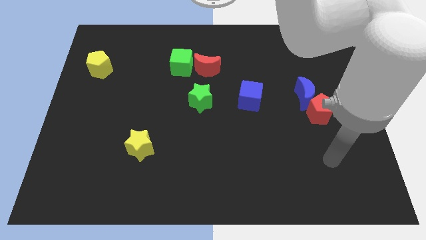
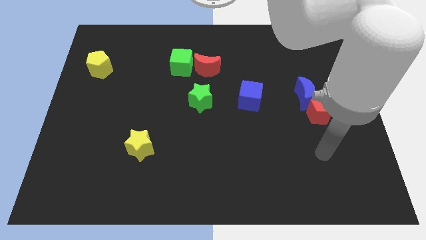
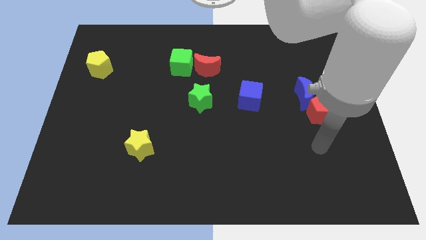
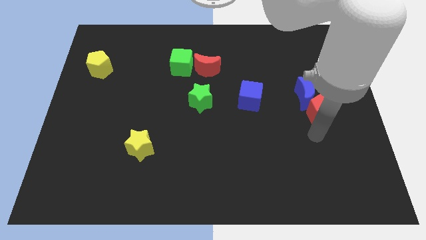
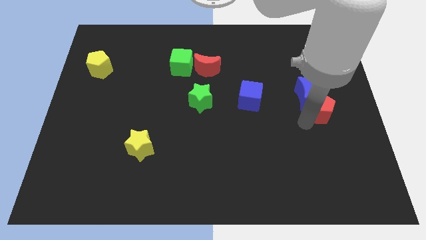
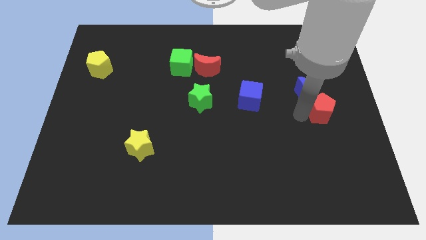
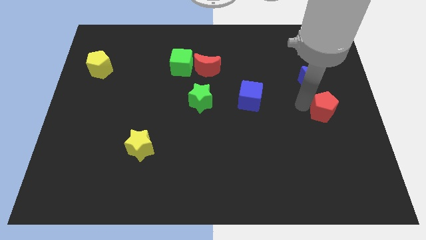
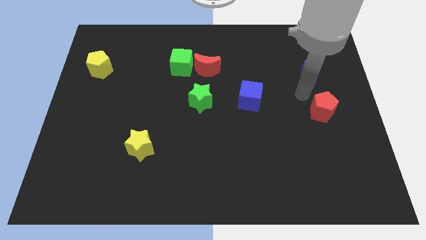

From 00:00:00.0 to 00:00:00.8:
separate the red pentagon from the blue moon

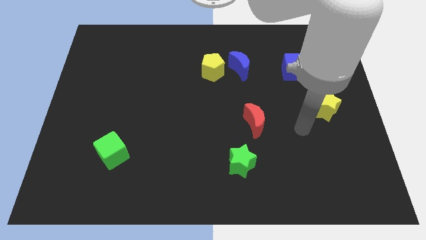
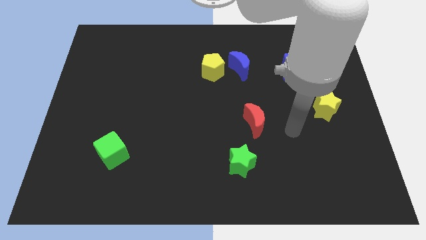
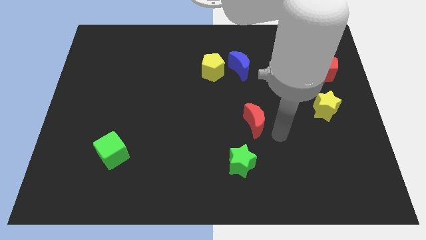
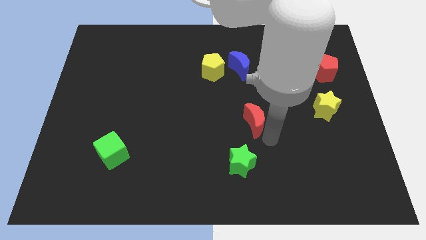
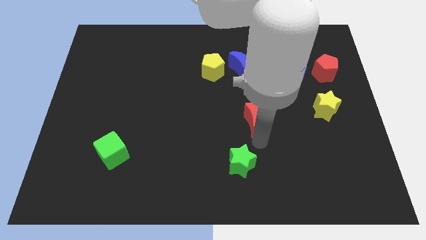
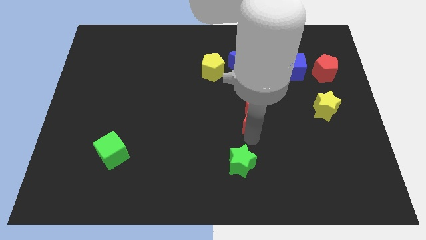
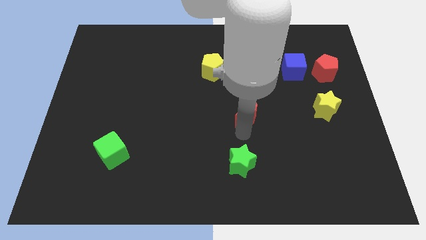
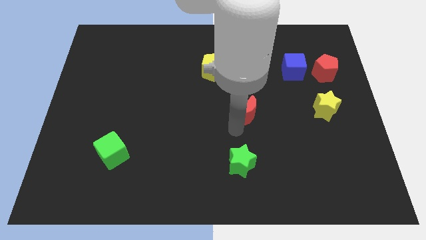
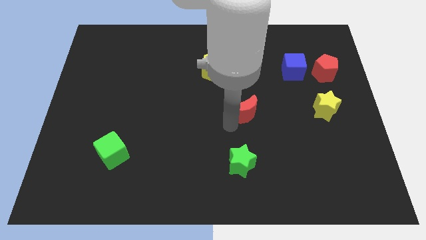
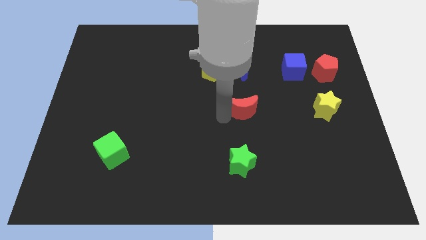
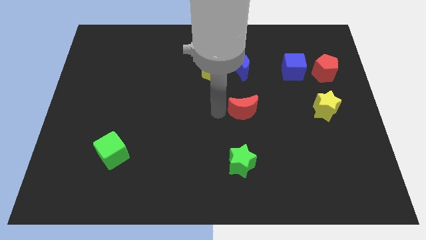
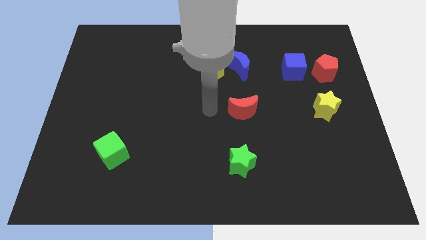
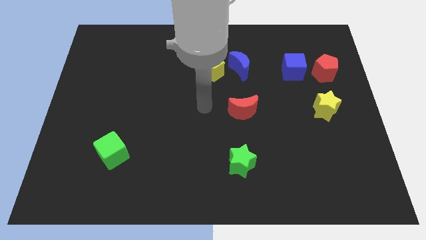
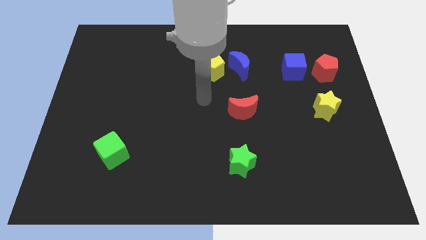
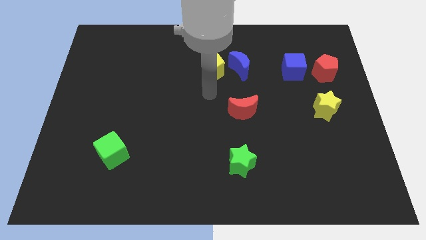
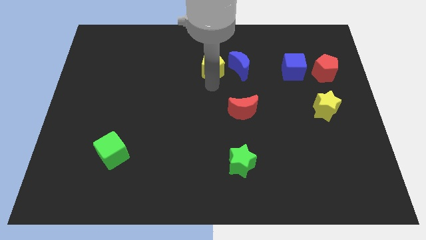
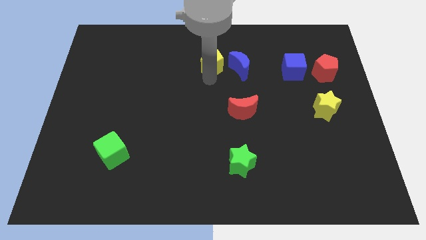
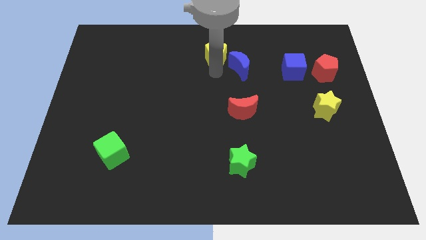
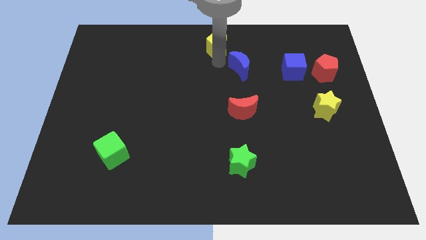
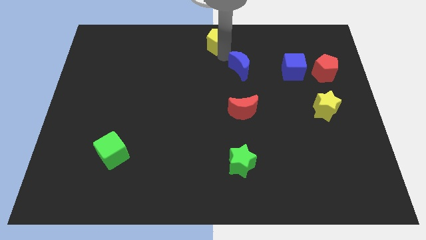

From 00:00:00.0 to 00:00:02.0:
move the blue moon away from the yellow pentagon

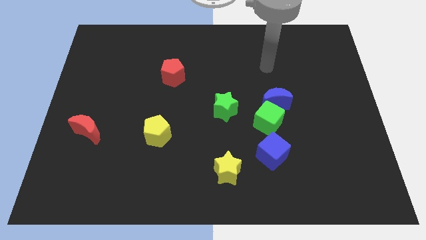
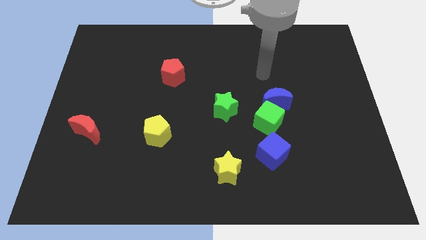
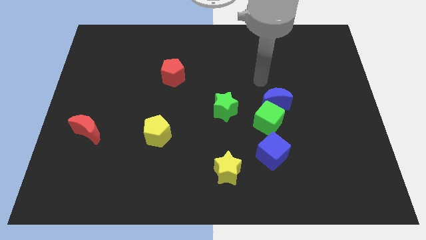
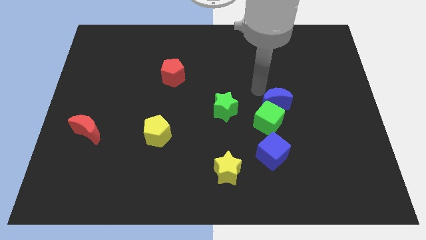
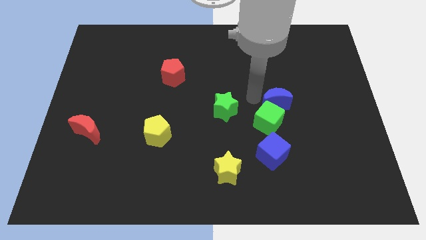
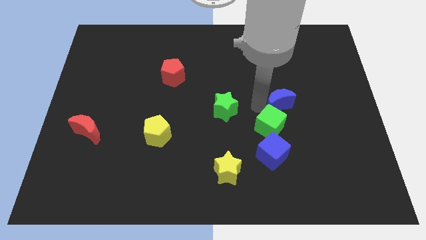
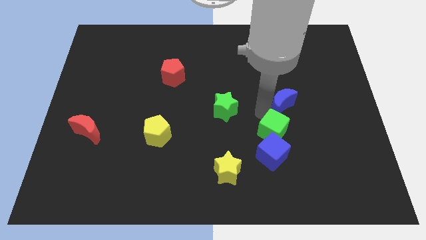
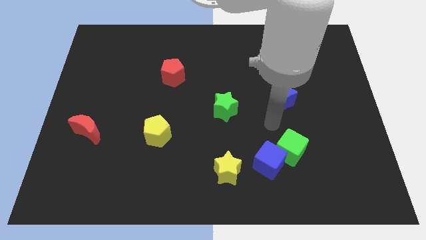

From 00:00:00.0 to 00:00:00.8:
move the blue moon away from the green cube

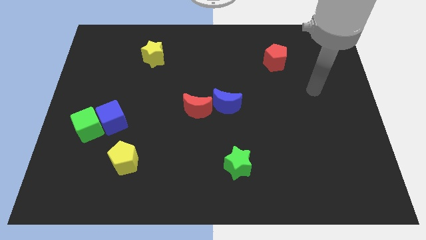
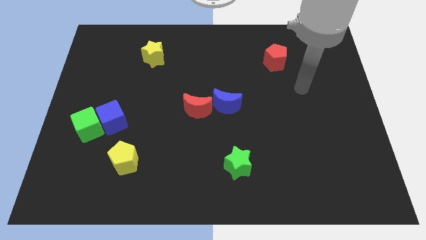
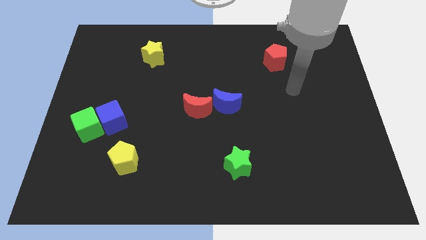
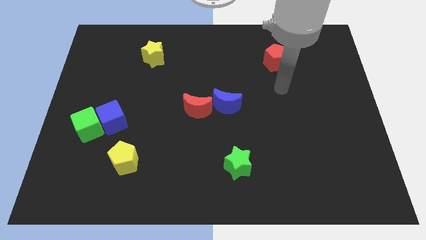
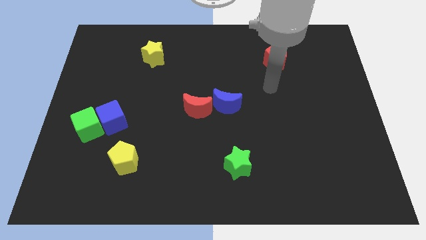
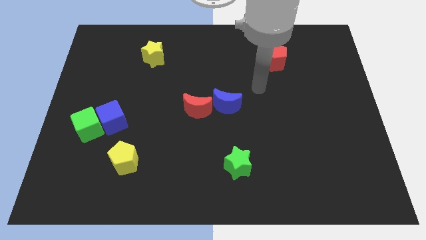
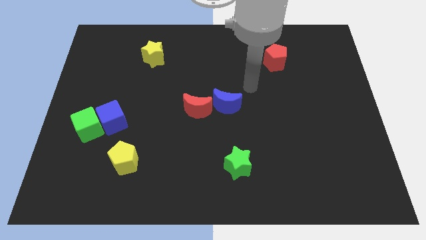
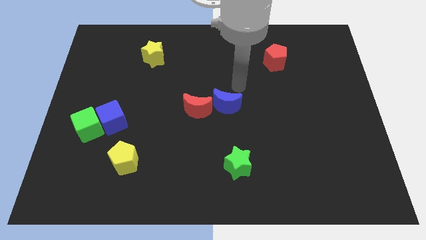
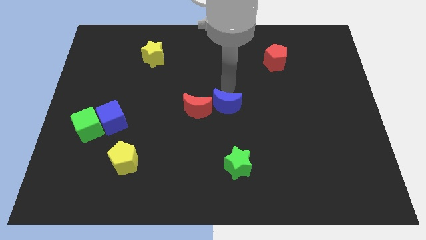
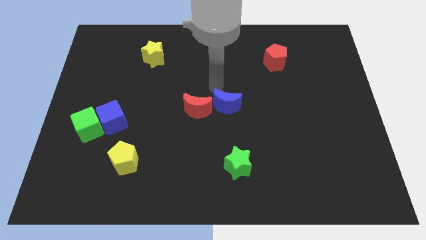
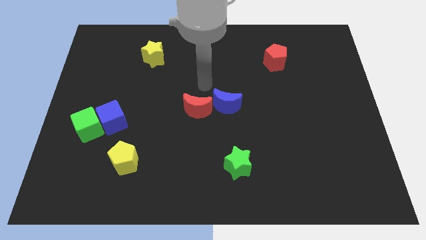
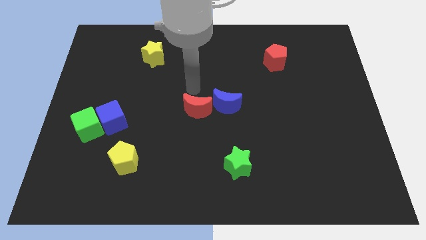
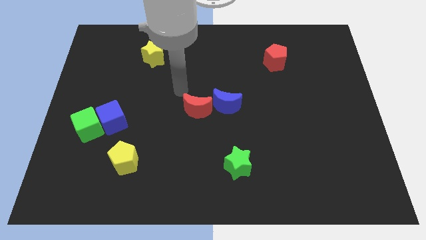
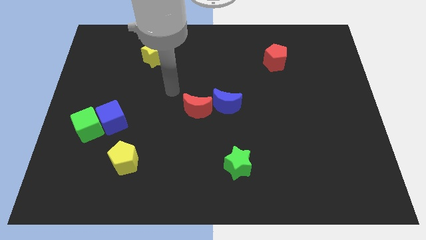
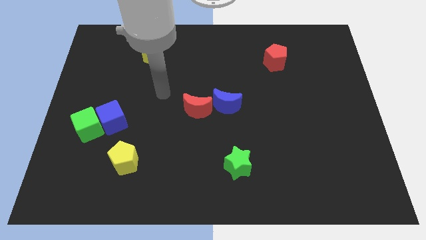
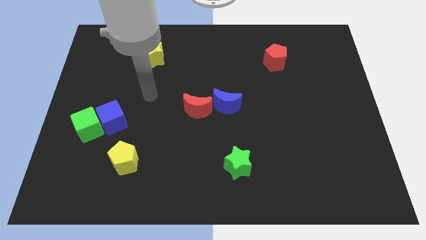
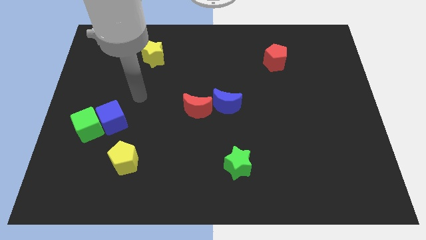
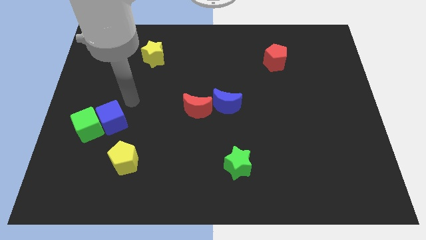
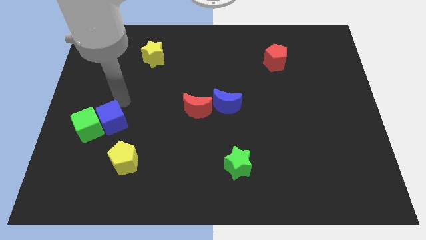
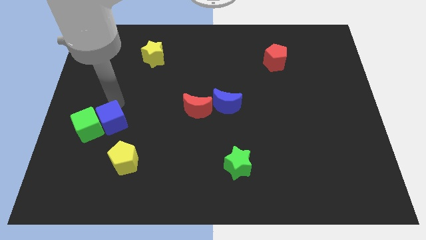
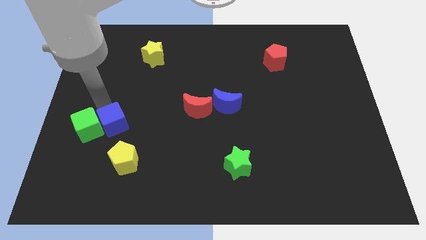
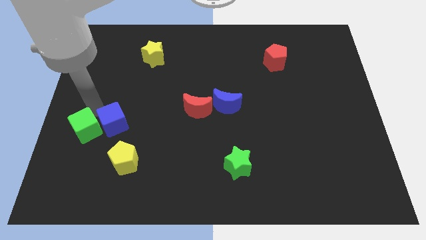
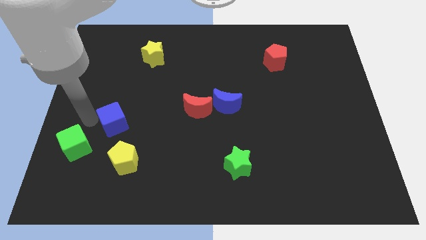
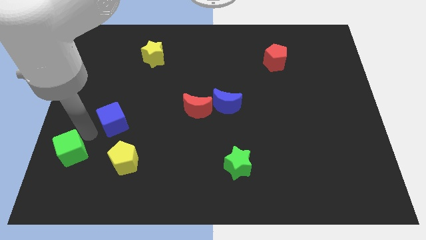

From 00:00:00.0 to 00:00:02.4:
move the blue cube away from the green cube

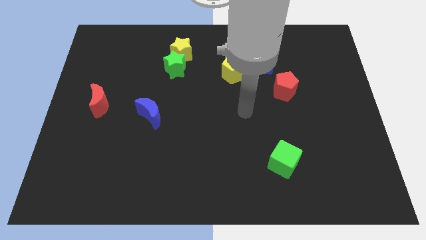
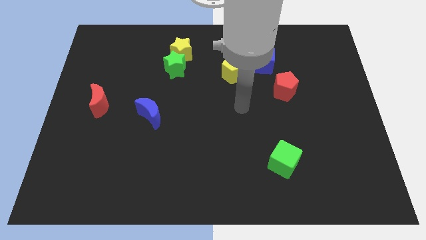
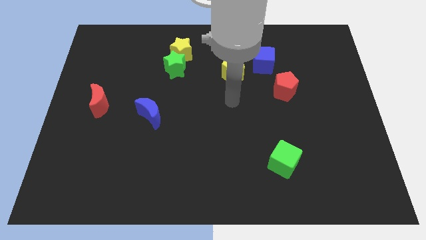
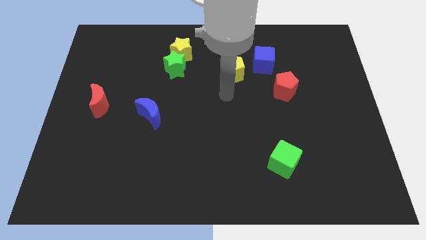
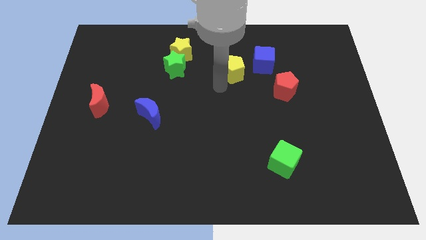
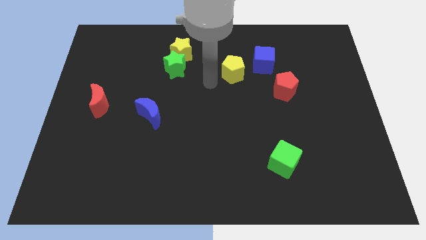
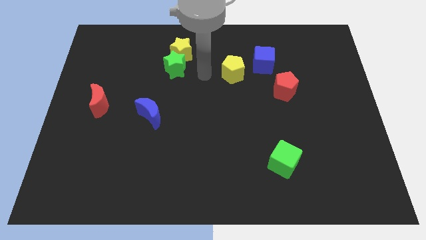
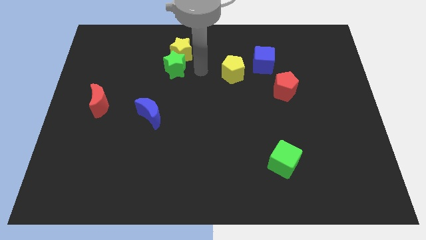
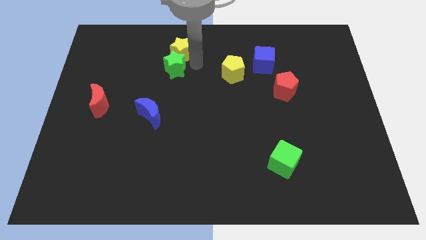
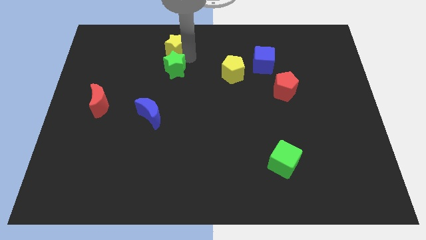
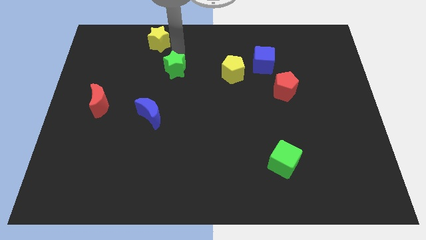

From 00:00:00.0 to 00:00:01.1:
move the green star away from the yellow star

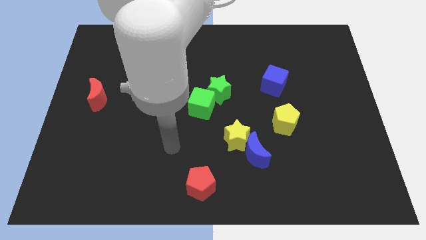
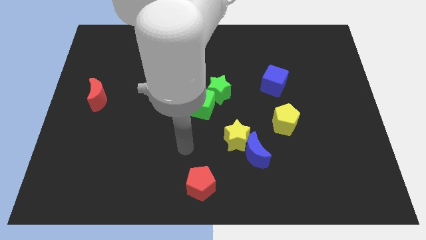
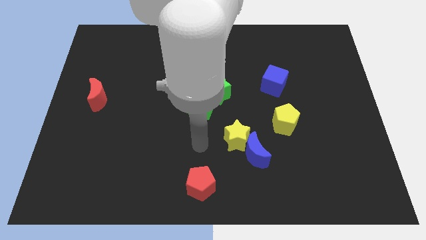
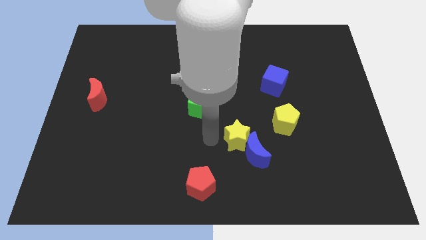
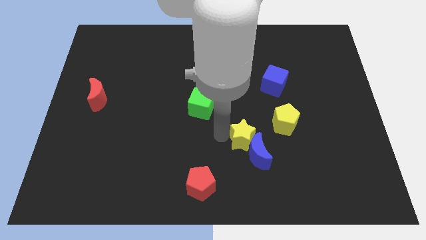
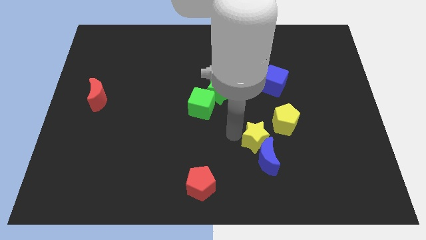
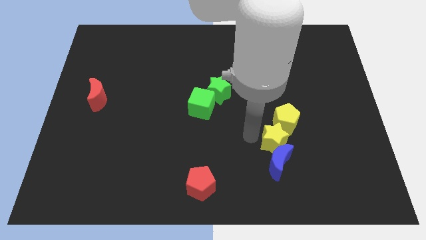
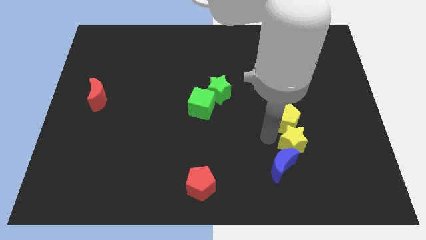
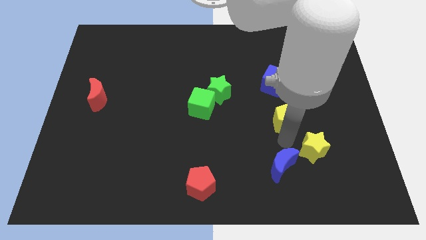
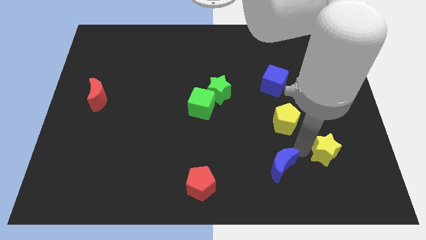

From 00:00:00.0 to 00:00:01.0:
move the blue moon away from the yellow star

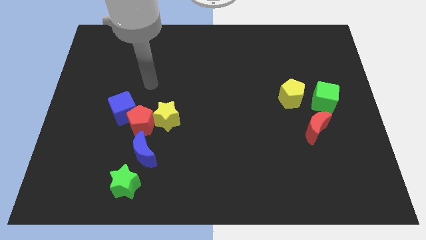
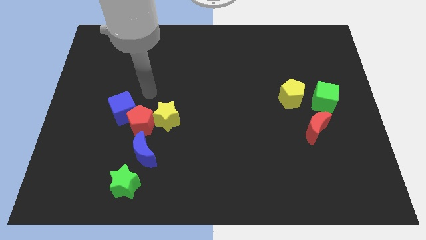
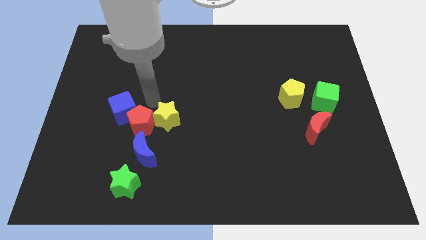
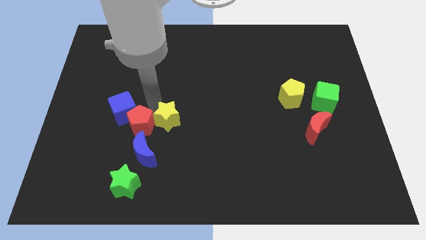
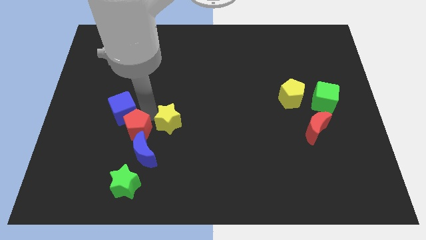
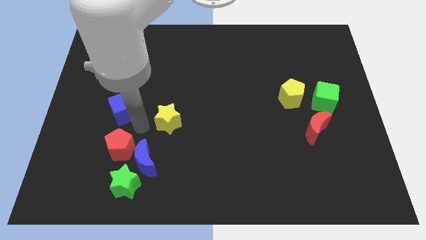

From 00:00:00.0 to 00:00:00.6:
move the blue cube away from the red pentagon

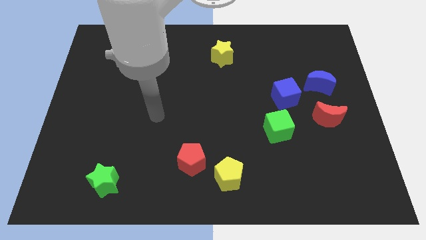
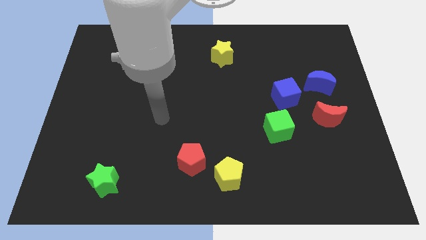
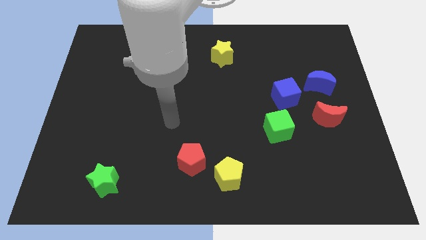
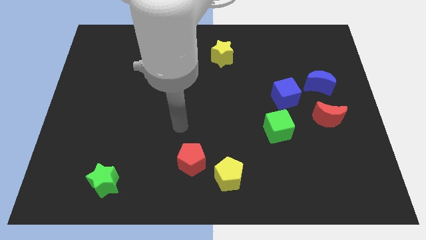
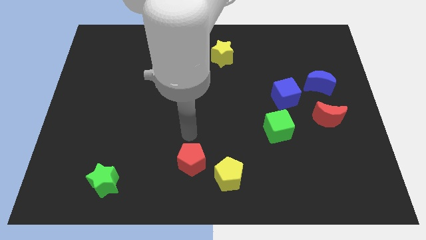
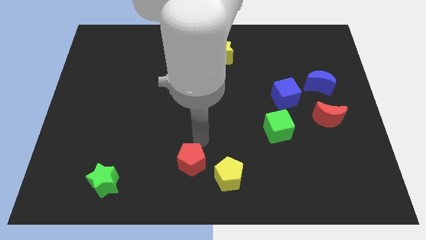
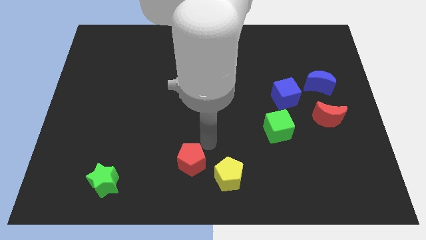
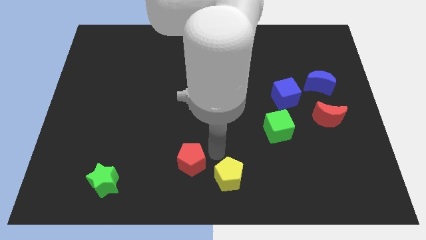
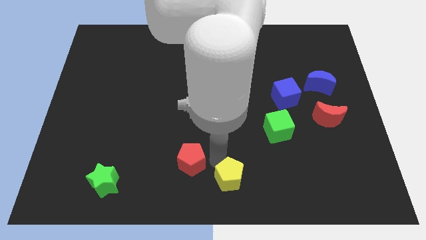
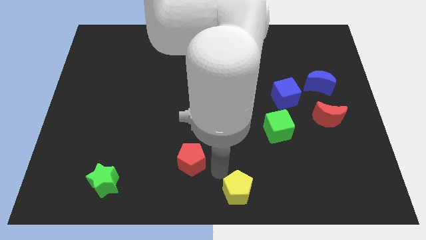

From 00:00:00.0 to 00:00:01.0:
move the red pentagon away from the yellow pentagon
